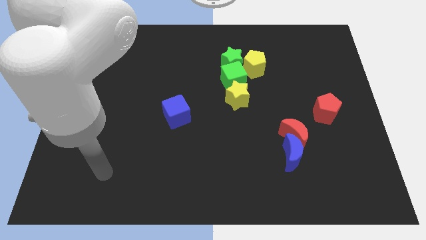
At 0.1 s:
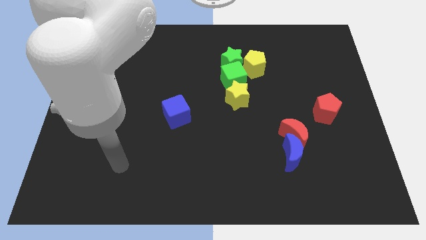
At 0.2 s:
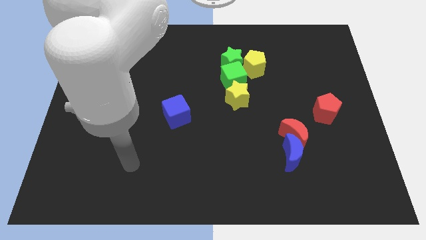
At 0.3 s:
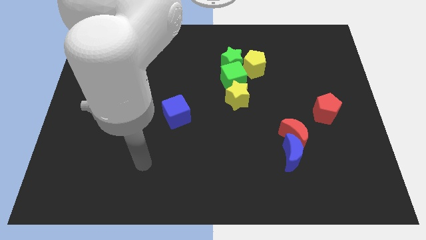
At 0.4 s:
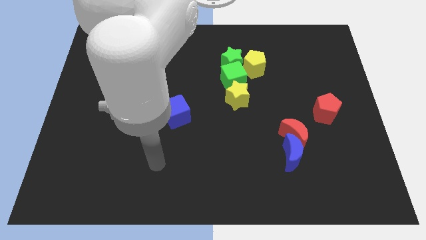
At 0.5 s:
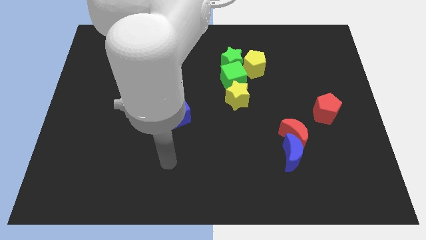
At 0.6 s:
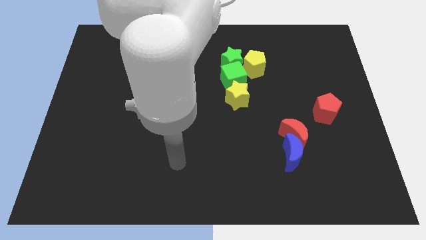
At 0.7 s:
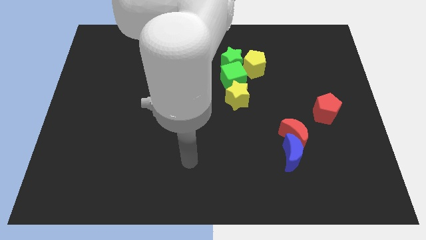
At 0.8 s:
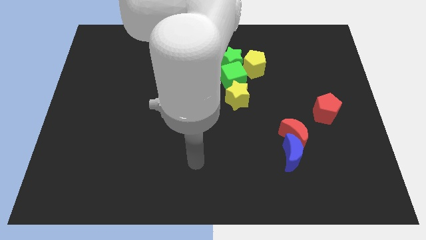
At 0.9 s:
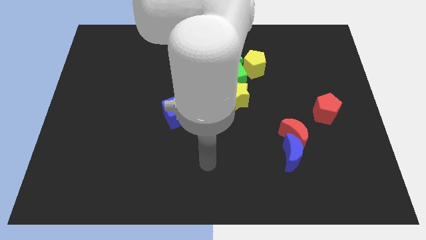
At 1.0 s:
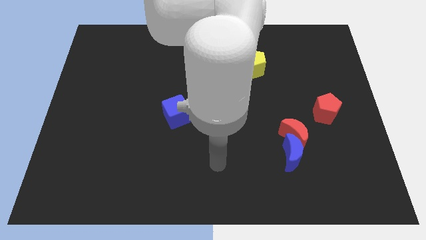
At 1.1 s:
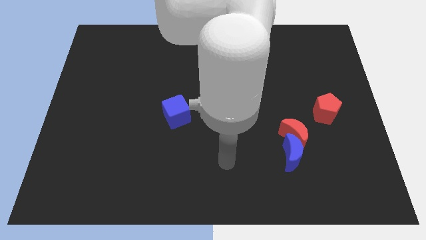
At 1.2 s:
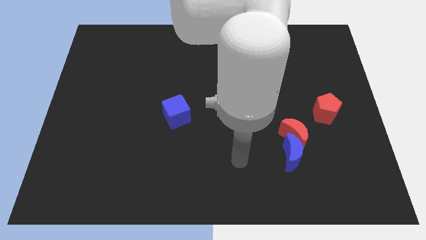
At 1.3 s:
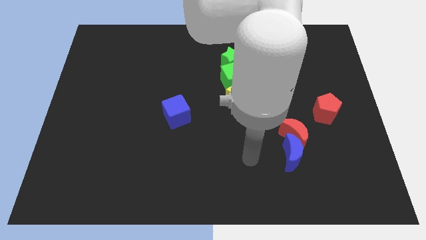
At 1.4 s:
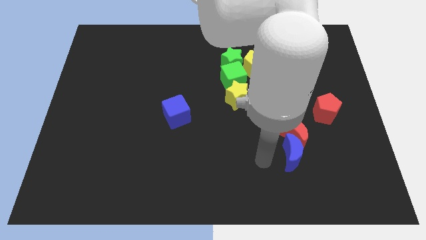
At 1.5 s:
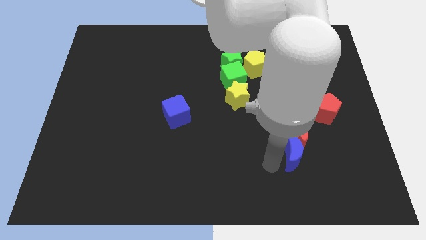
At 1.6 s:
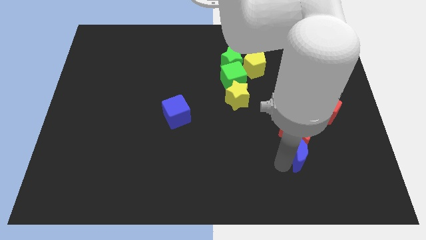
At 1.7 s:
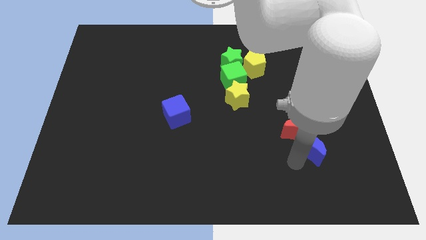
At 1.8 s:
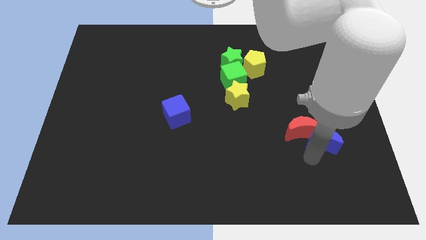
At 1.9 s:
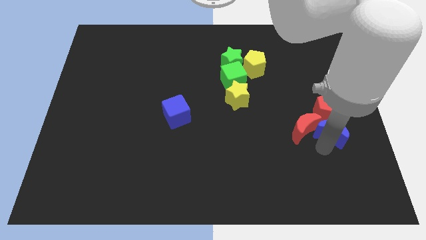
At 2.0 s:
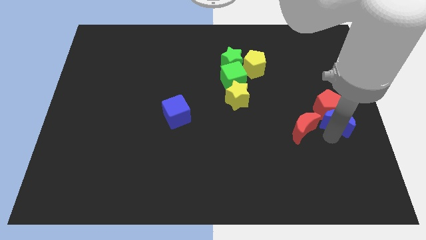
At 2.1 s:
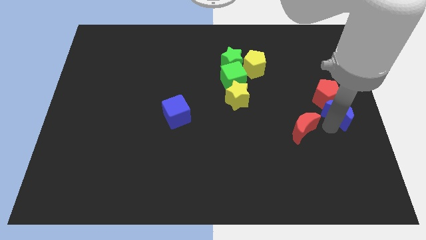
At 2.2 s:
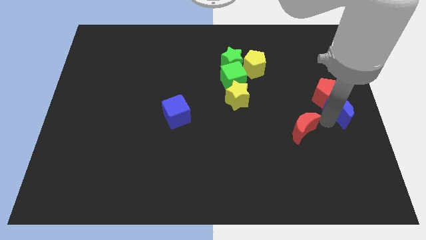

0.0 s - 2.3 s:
move the red moon away from the blue moon

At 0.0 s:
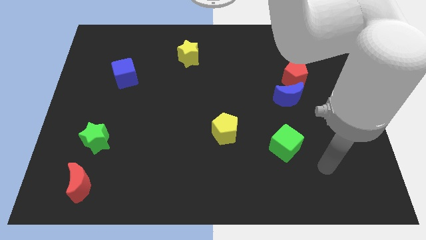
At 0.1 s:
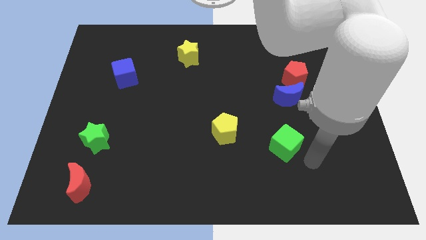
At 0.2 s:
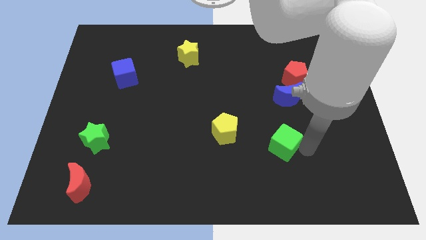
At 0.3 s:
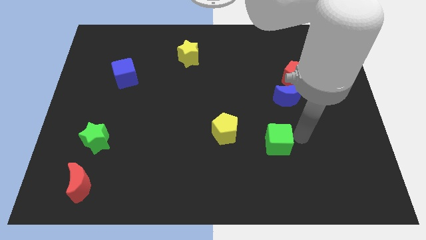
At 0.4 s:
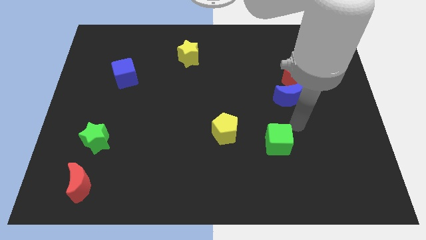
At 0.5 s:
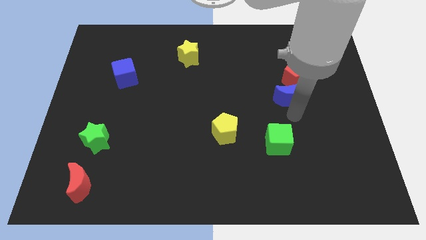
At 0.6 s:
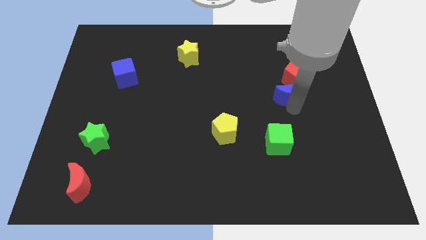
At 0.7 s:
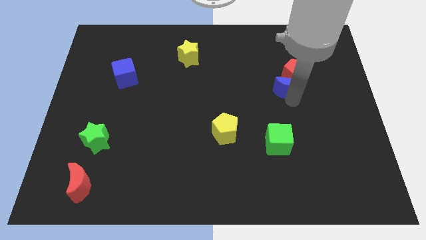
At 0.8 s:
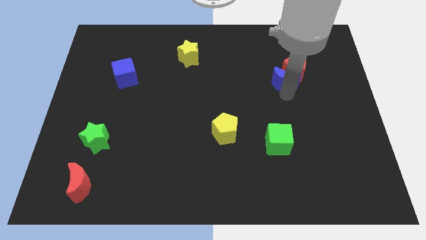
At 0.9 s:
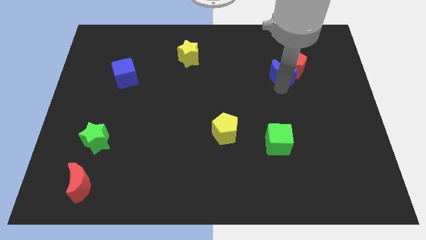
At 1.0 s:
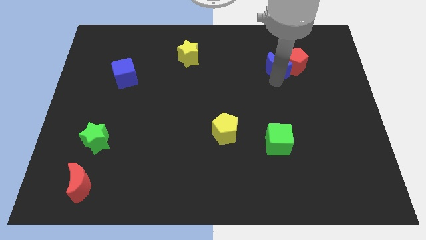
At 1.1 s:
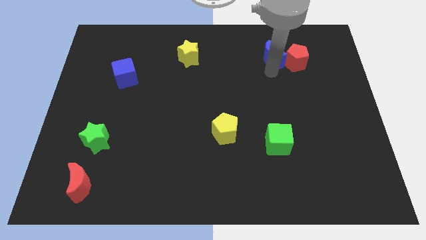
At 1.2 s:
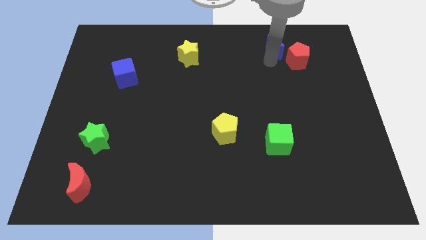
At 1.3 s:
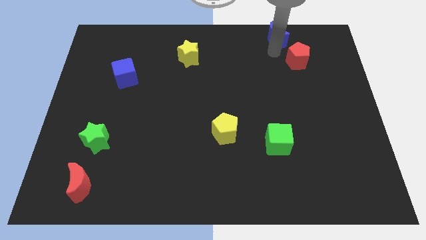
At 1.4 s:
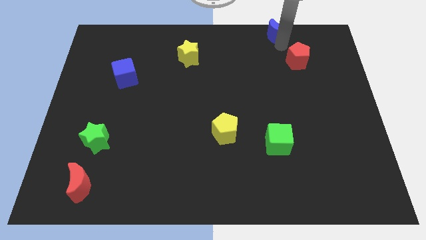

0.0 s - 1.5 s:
pull the red pentagon apart from the blue moon

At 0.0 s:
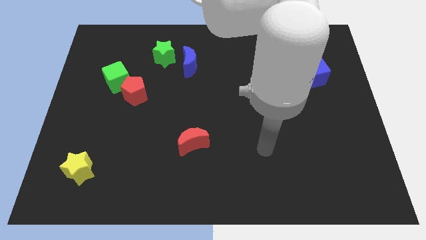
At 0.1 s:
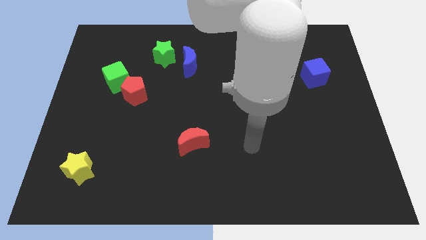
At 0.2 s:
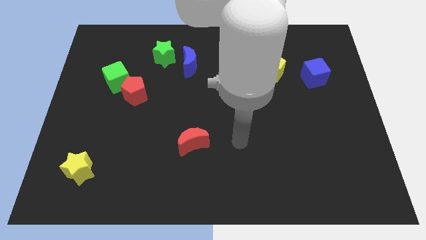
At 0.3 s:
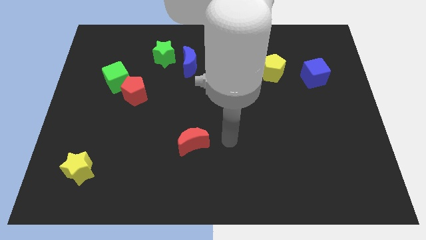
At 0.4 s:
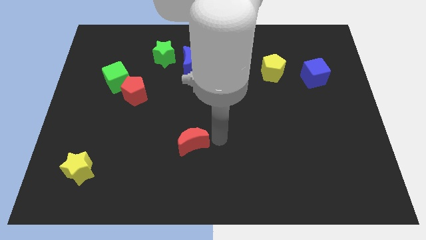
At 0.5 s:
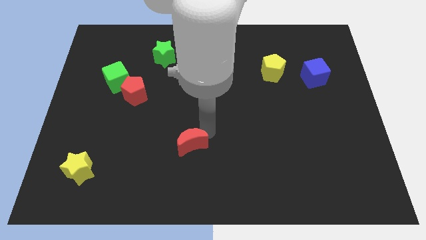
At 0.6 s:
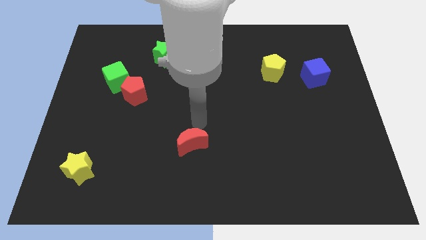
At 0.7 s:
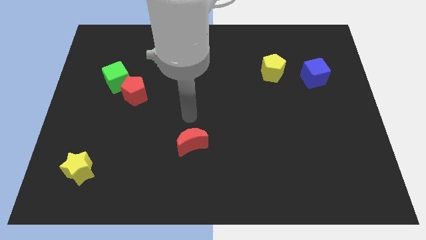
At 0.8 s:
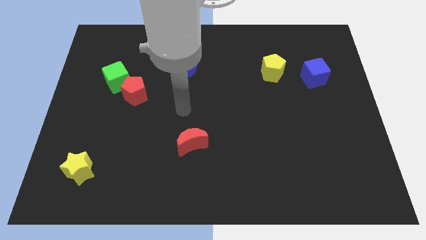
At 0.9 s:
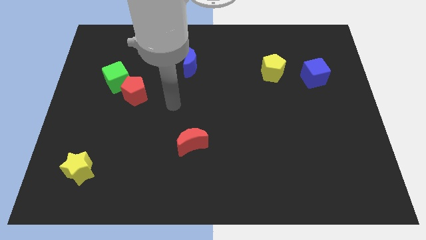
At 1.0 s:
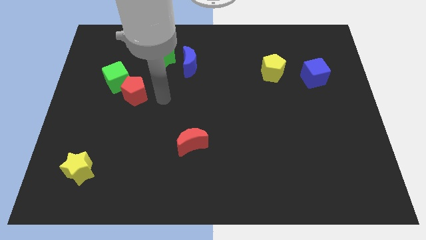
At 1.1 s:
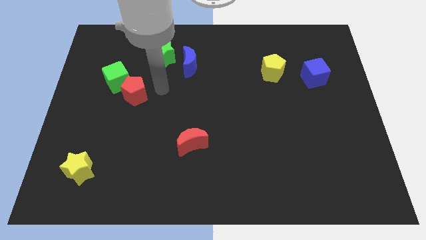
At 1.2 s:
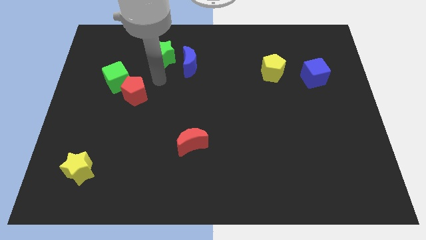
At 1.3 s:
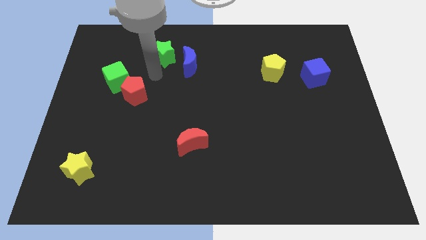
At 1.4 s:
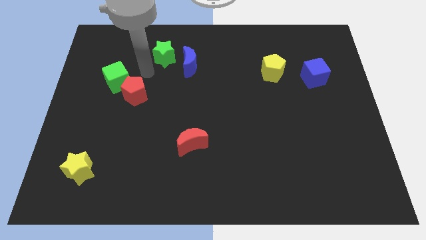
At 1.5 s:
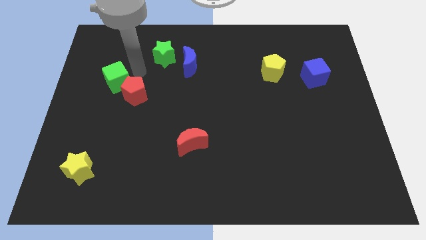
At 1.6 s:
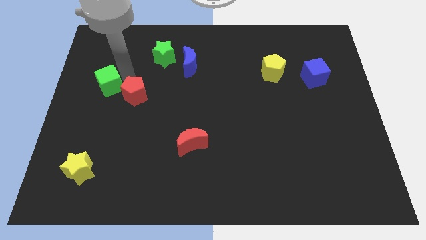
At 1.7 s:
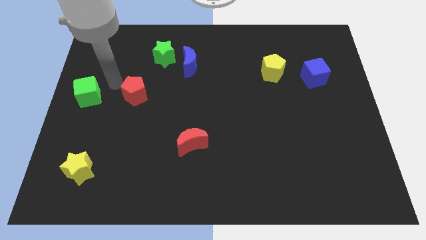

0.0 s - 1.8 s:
separate the red pentagon from the green cube

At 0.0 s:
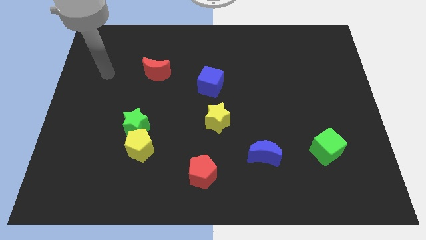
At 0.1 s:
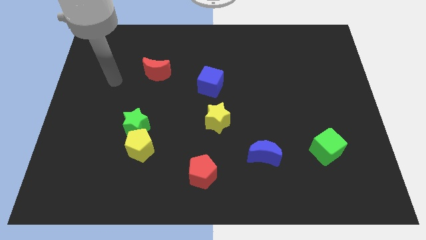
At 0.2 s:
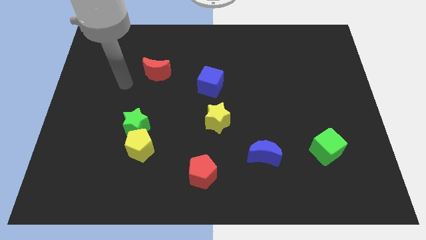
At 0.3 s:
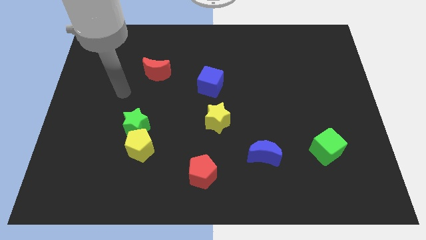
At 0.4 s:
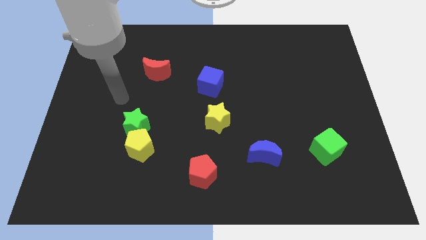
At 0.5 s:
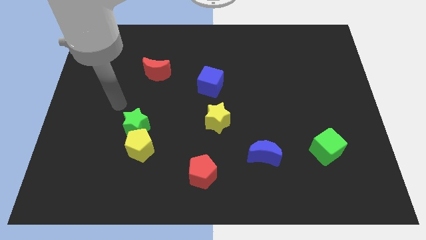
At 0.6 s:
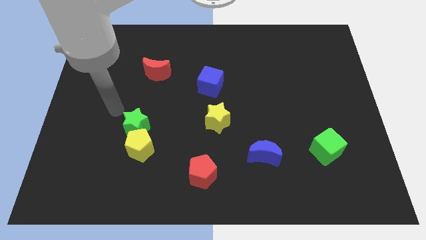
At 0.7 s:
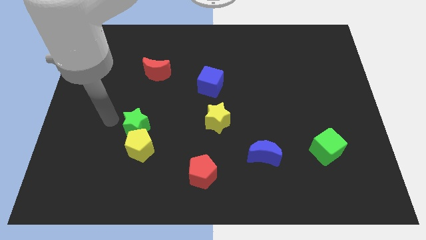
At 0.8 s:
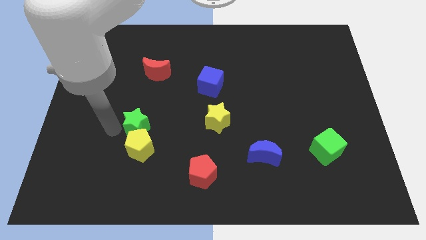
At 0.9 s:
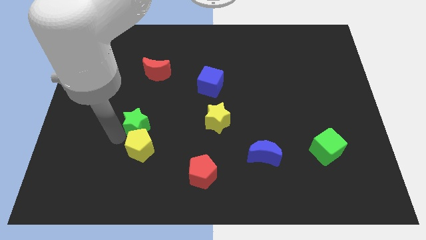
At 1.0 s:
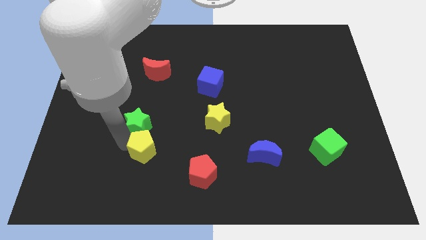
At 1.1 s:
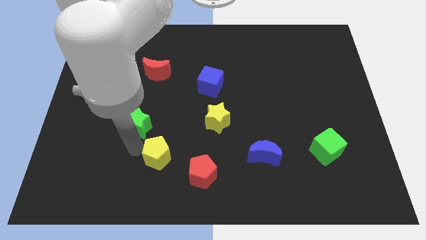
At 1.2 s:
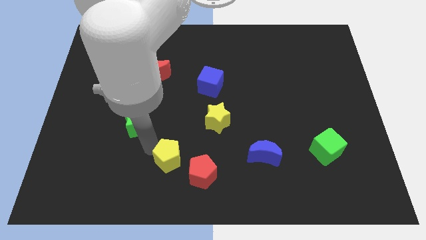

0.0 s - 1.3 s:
move the green star away from the yellow pentagon

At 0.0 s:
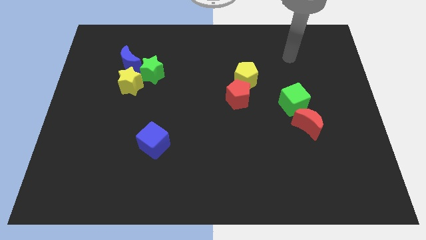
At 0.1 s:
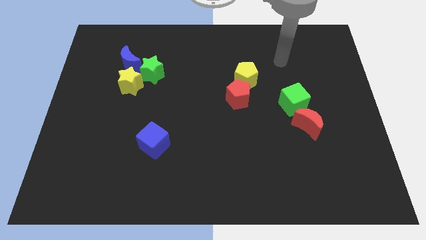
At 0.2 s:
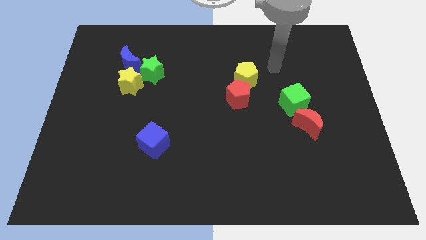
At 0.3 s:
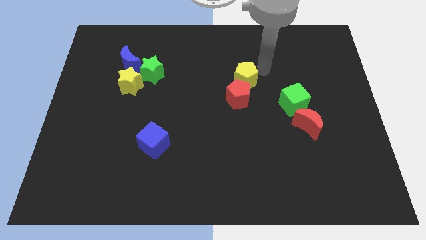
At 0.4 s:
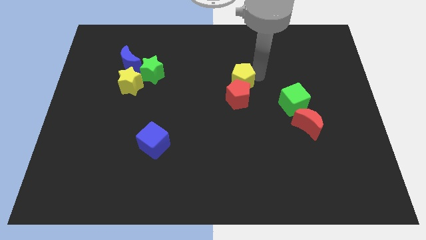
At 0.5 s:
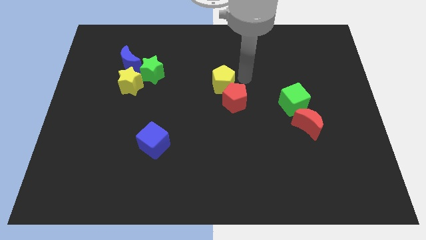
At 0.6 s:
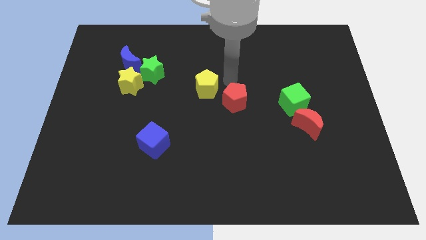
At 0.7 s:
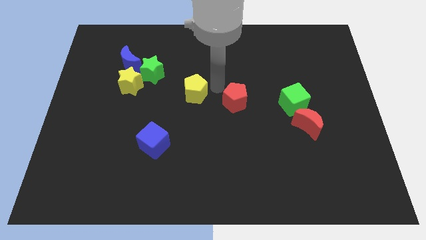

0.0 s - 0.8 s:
separate the red pentagon from the yellow pentagon

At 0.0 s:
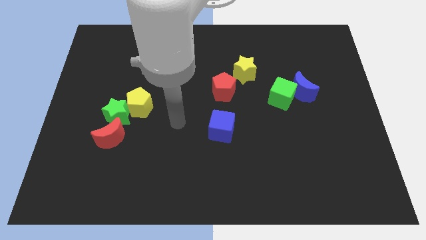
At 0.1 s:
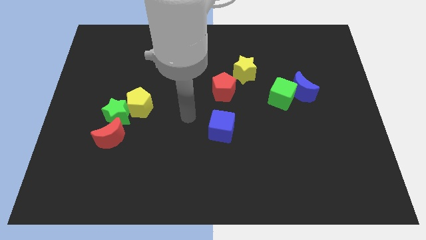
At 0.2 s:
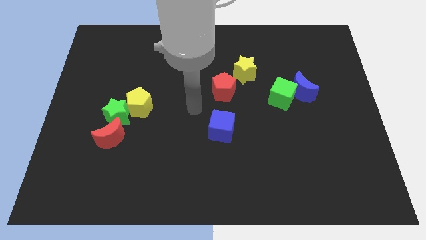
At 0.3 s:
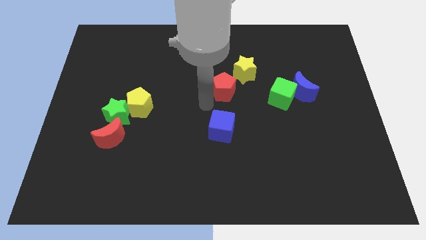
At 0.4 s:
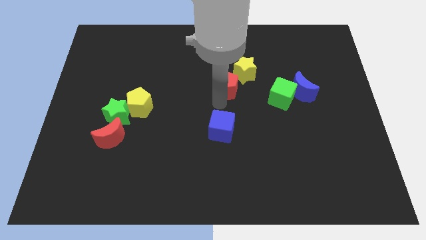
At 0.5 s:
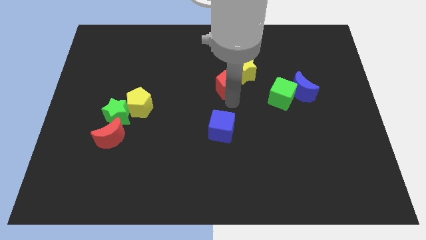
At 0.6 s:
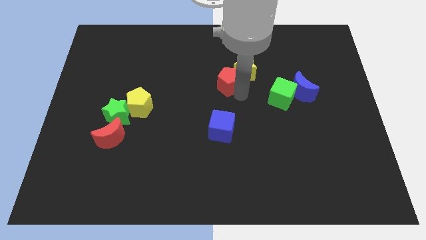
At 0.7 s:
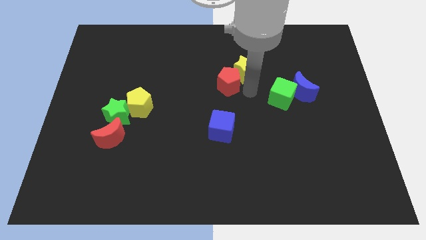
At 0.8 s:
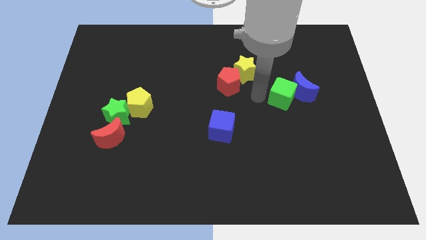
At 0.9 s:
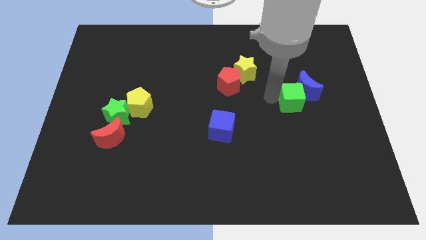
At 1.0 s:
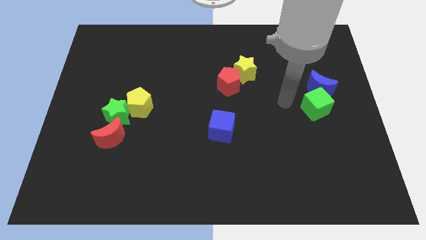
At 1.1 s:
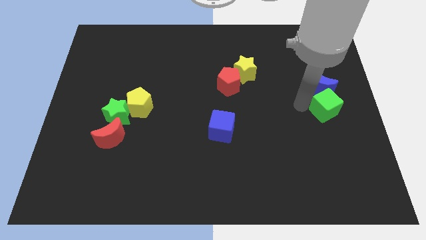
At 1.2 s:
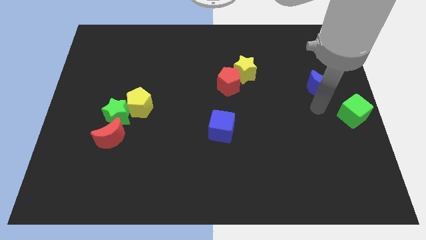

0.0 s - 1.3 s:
pull the blue moon apart from the green cube

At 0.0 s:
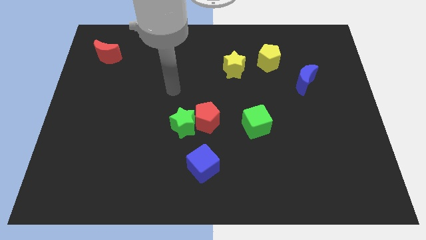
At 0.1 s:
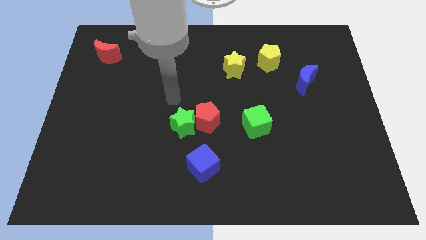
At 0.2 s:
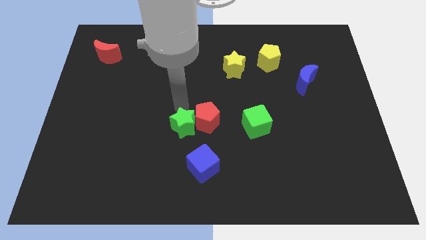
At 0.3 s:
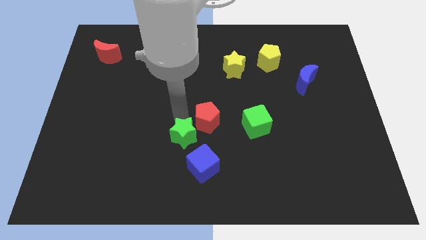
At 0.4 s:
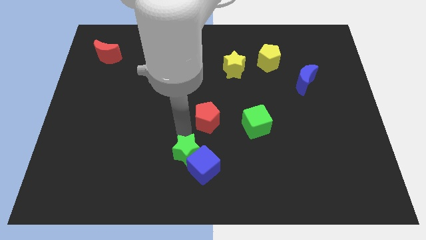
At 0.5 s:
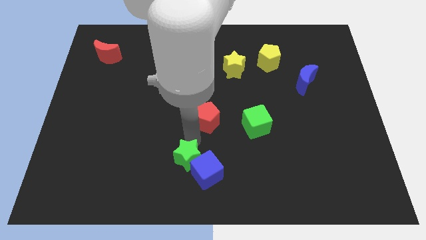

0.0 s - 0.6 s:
pull the red pentagon apart from the green star
